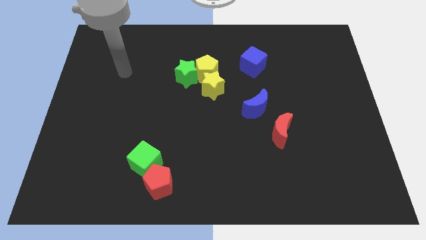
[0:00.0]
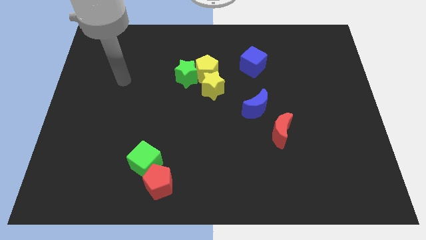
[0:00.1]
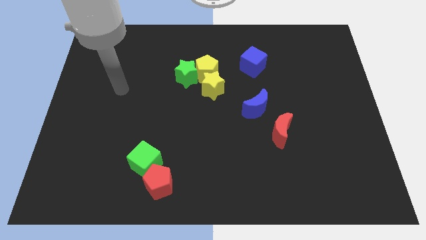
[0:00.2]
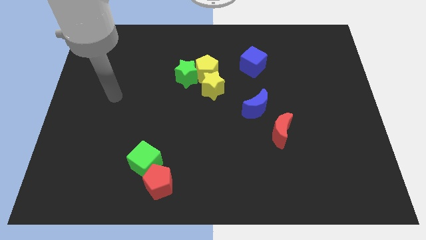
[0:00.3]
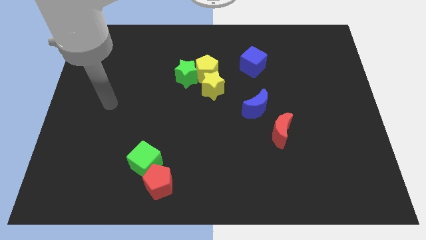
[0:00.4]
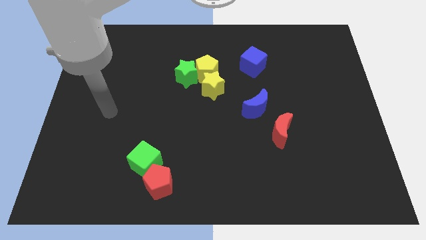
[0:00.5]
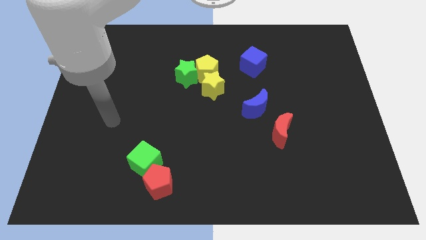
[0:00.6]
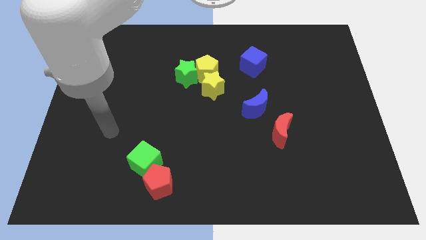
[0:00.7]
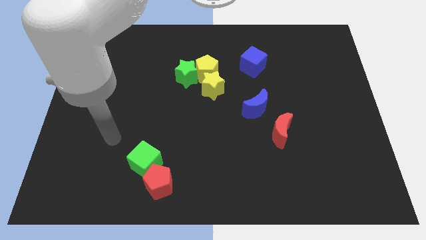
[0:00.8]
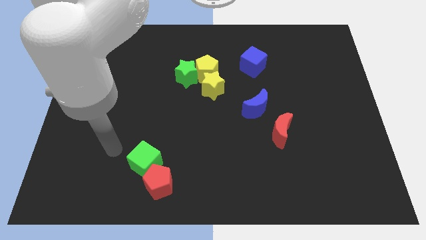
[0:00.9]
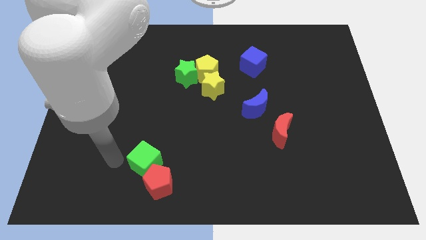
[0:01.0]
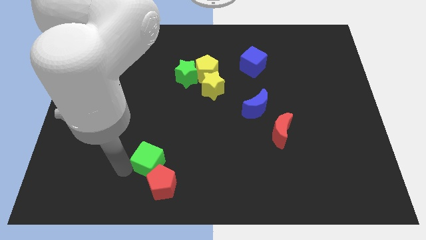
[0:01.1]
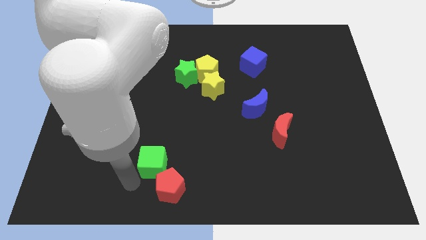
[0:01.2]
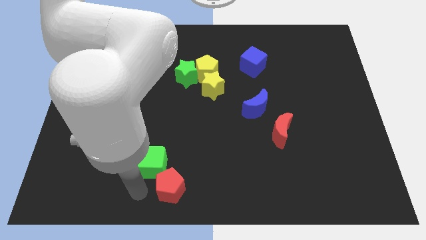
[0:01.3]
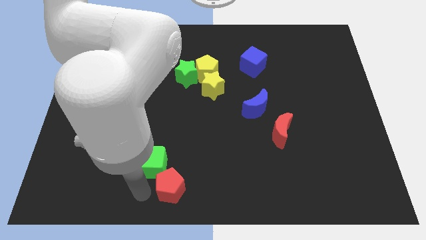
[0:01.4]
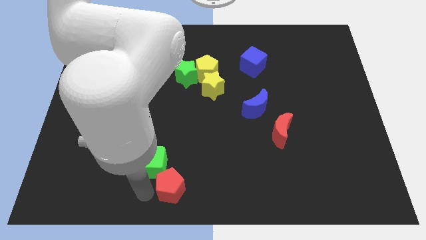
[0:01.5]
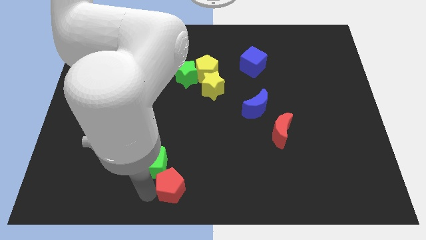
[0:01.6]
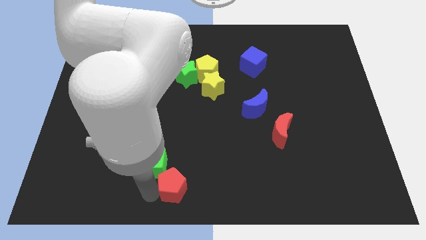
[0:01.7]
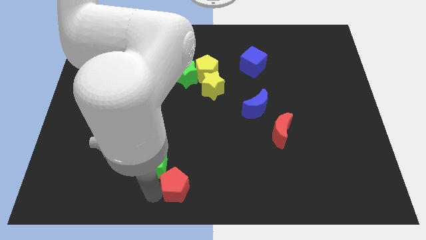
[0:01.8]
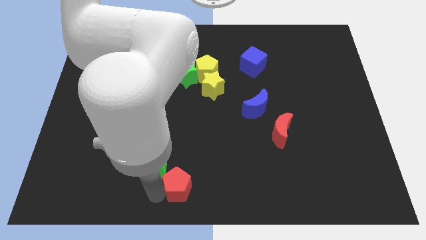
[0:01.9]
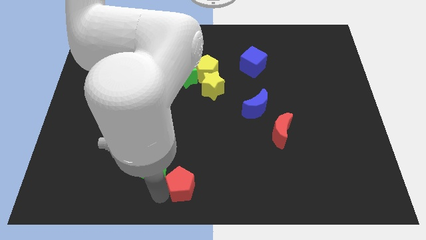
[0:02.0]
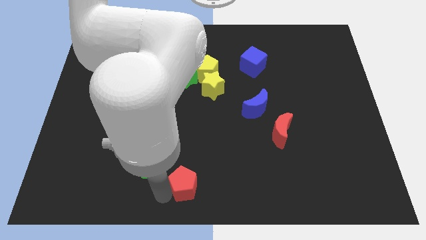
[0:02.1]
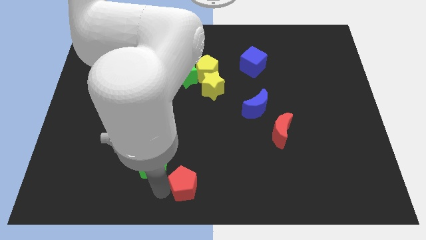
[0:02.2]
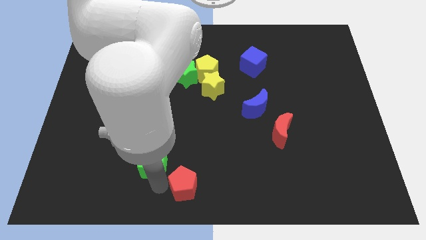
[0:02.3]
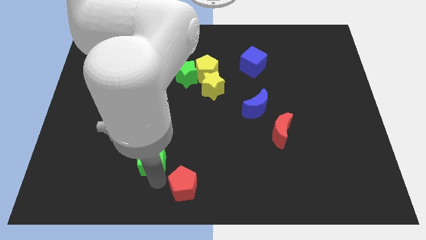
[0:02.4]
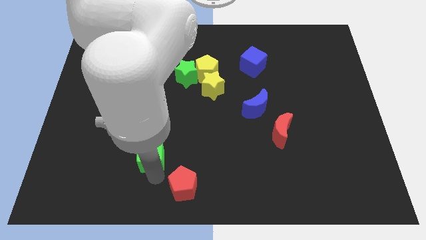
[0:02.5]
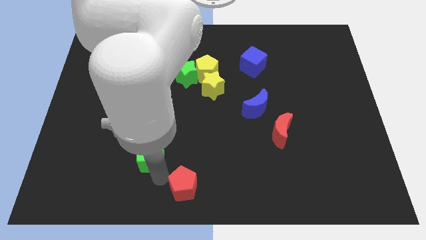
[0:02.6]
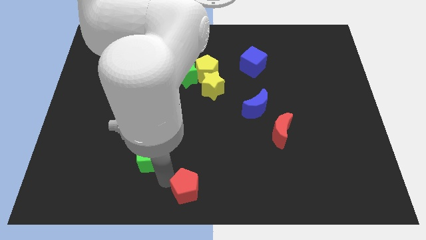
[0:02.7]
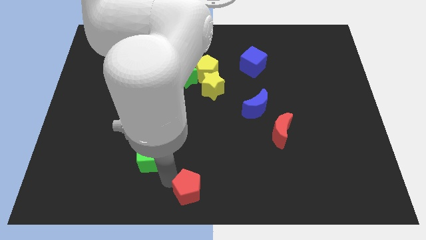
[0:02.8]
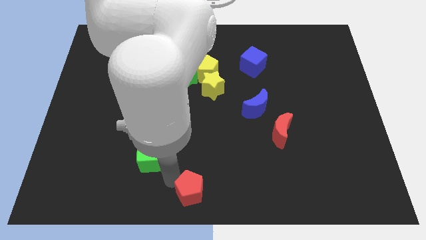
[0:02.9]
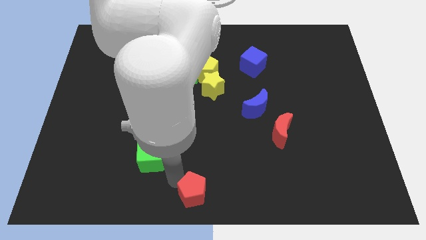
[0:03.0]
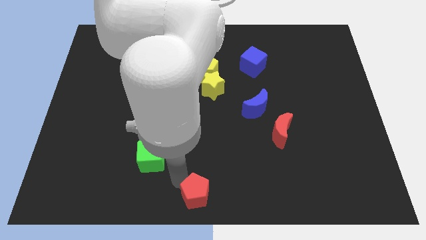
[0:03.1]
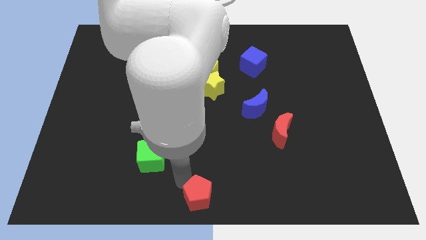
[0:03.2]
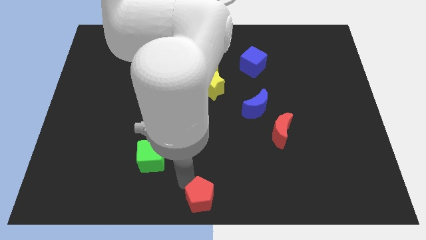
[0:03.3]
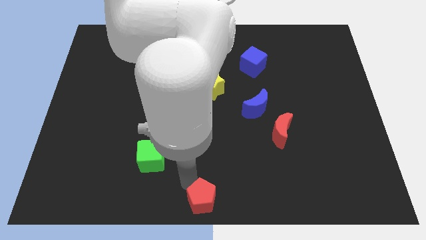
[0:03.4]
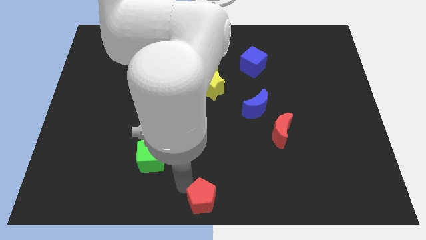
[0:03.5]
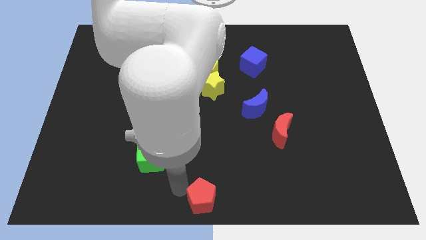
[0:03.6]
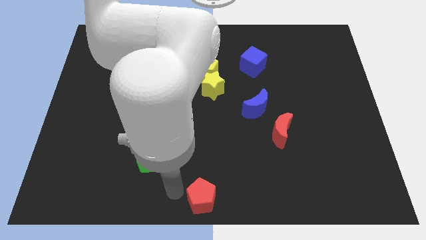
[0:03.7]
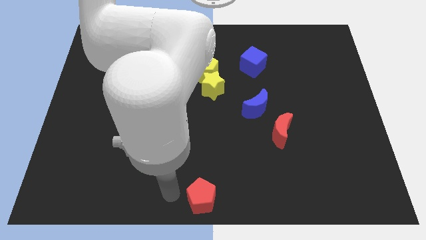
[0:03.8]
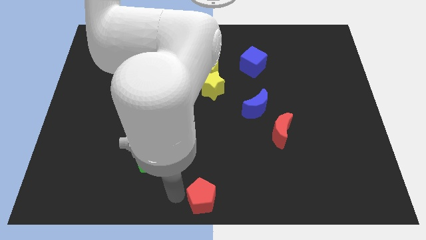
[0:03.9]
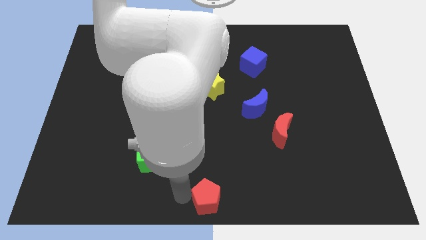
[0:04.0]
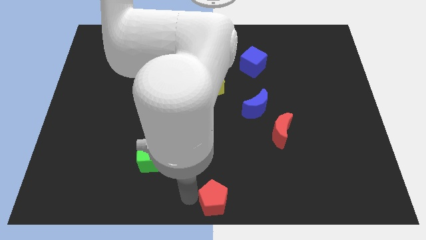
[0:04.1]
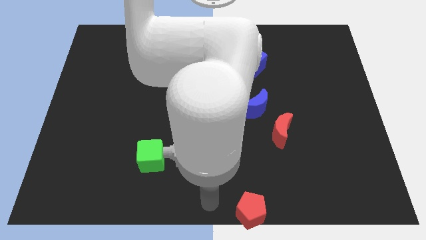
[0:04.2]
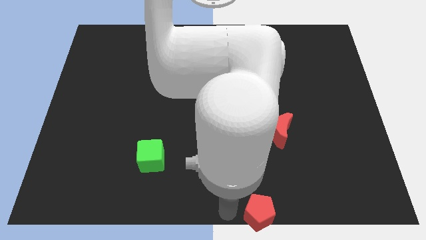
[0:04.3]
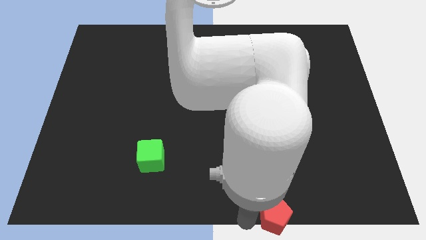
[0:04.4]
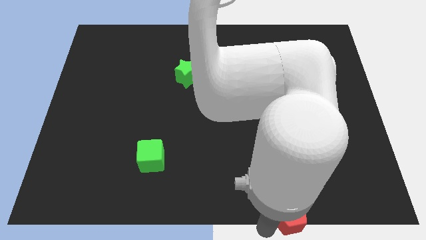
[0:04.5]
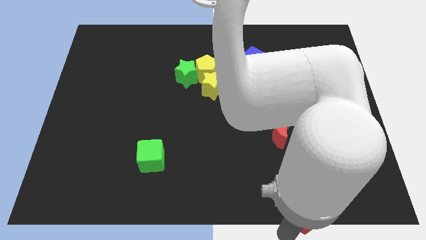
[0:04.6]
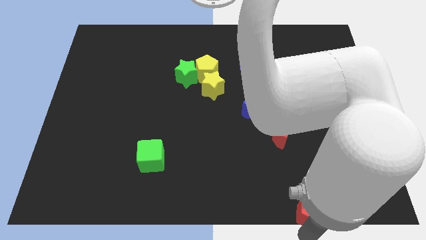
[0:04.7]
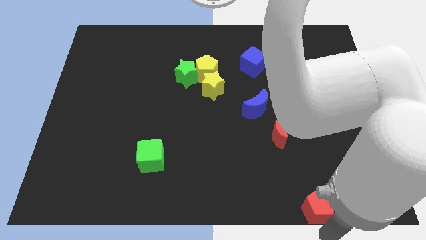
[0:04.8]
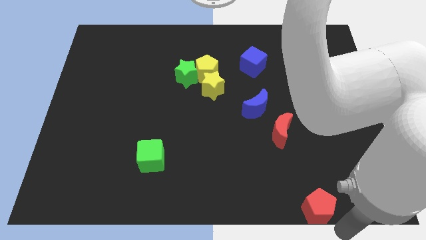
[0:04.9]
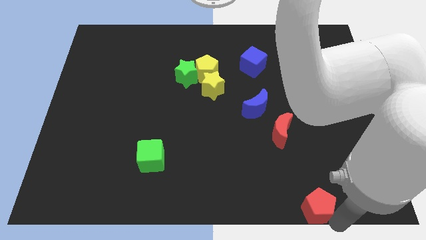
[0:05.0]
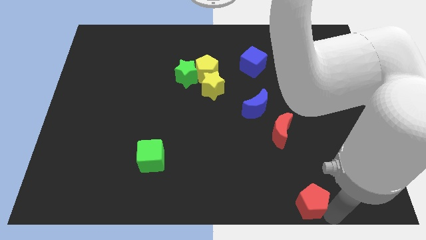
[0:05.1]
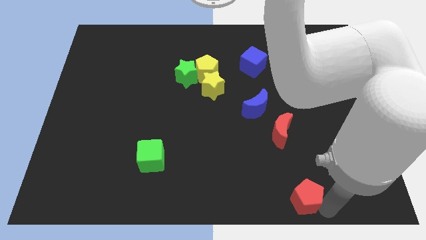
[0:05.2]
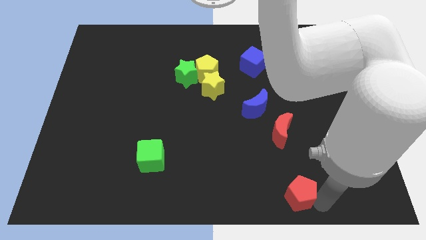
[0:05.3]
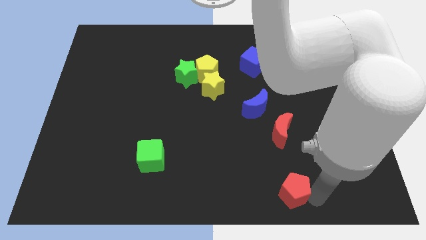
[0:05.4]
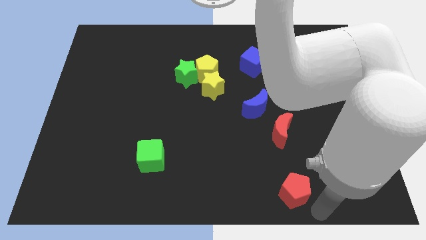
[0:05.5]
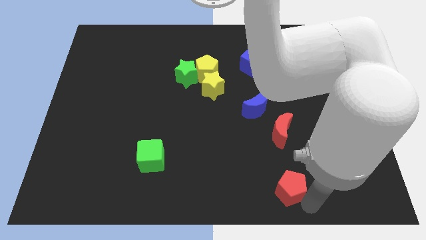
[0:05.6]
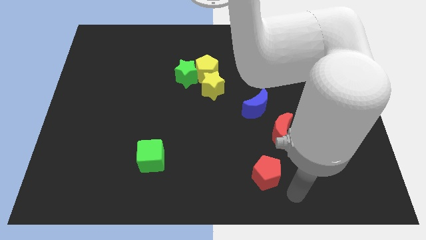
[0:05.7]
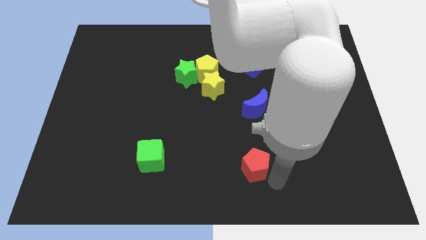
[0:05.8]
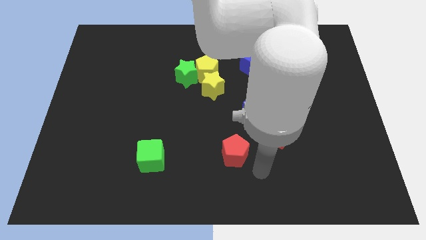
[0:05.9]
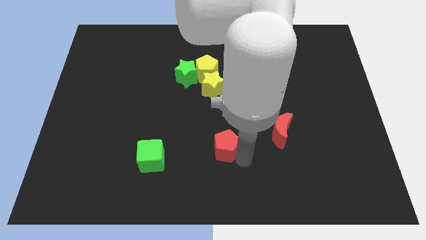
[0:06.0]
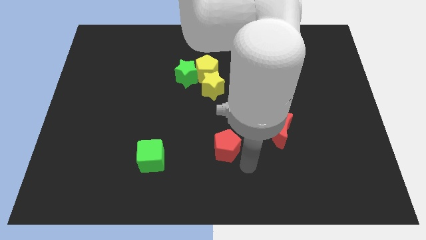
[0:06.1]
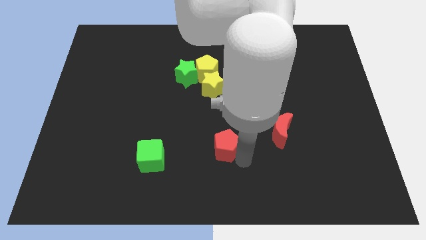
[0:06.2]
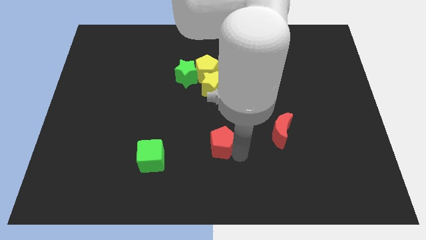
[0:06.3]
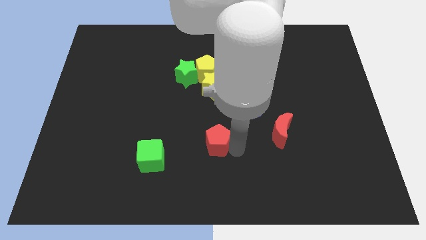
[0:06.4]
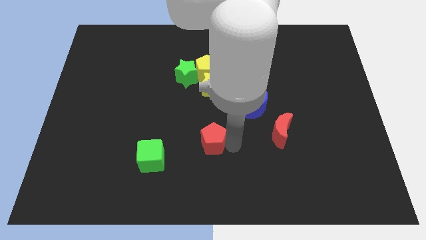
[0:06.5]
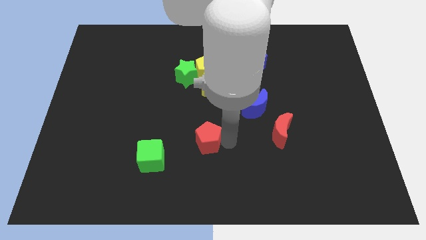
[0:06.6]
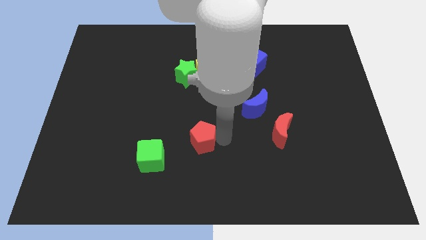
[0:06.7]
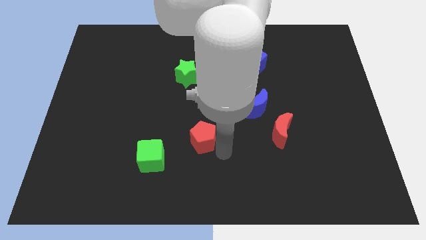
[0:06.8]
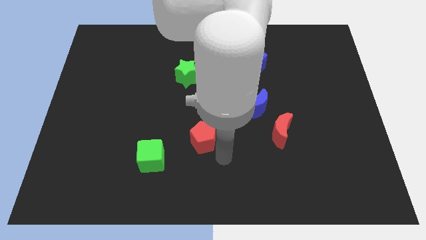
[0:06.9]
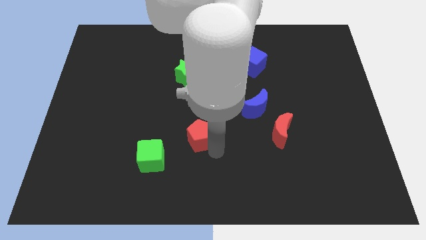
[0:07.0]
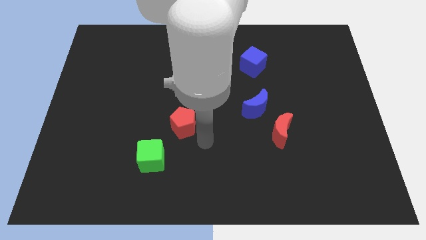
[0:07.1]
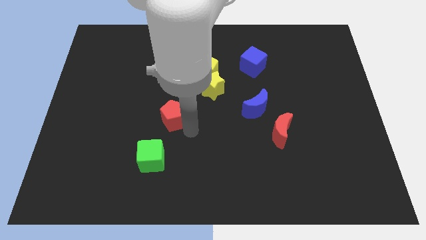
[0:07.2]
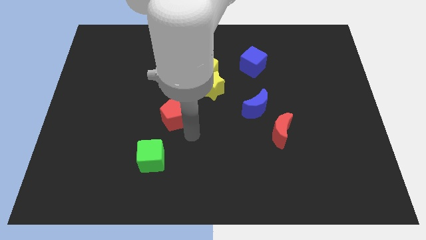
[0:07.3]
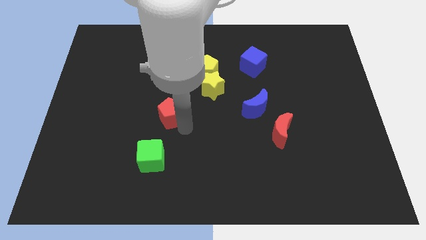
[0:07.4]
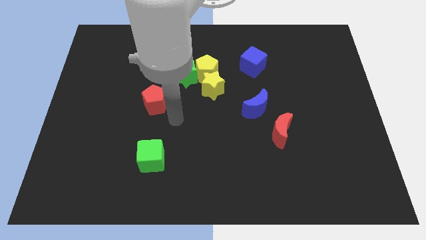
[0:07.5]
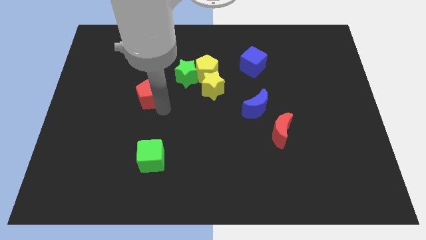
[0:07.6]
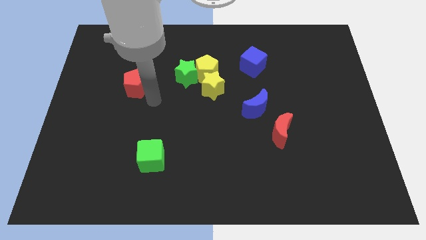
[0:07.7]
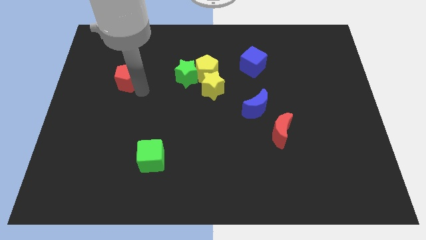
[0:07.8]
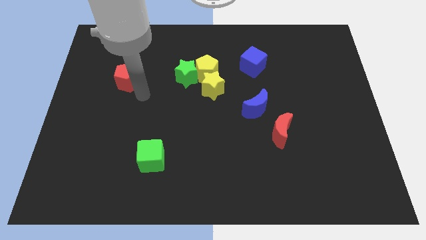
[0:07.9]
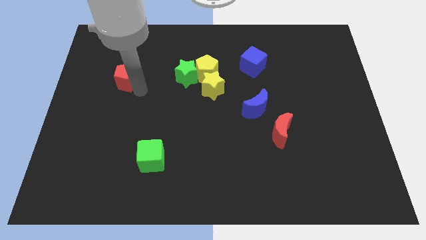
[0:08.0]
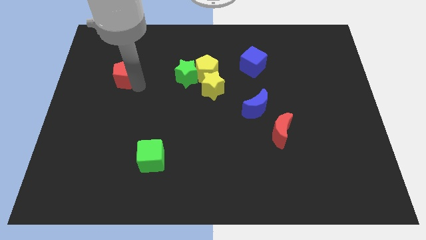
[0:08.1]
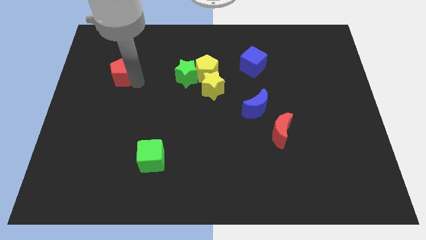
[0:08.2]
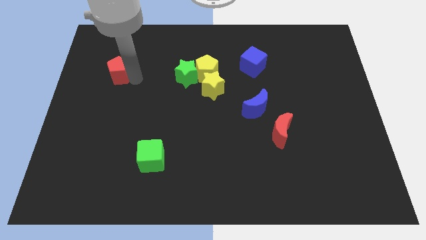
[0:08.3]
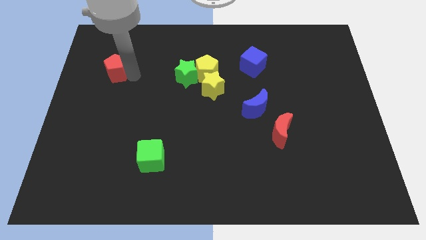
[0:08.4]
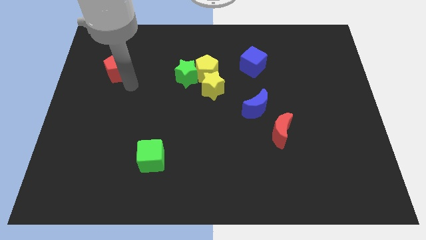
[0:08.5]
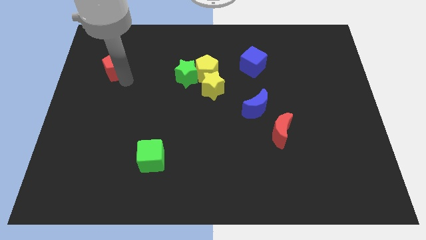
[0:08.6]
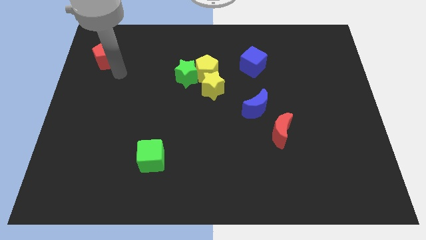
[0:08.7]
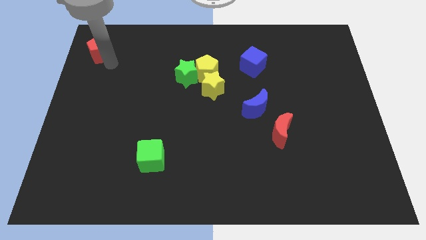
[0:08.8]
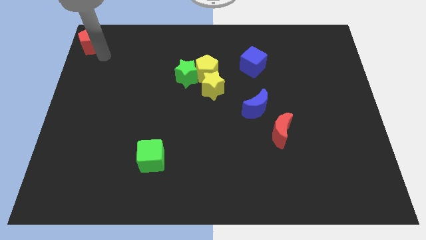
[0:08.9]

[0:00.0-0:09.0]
move the red pentagon to the top left of the board
